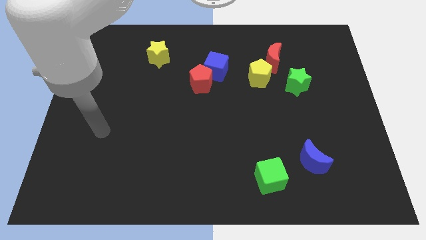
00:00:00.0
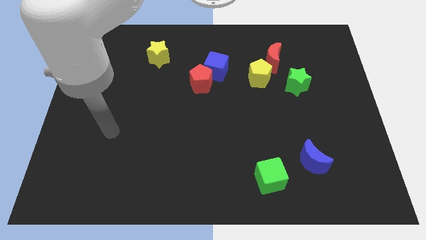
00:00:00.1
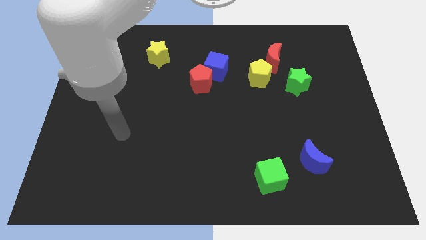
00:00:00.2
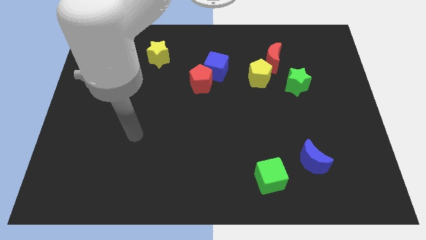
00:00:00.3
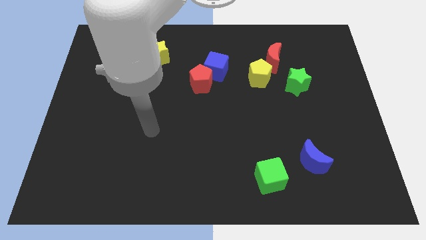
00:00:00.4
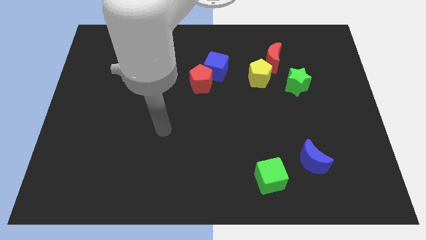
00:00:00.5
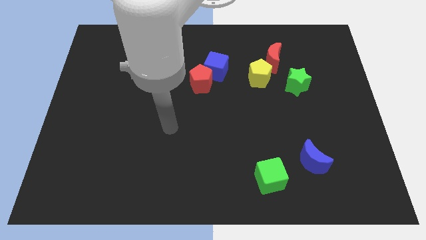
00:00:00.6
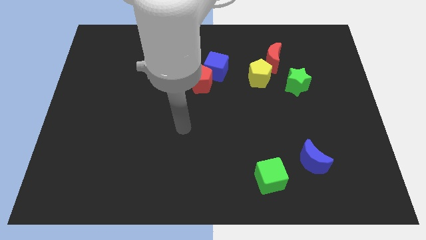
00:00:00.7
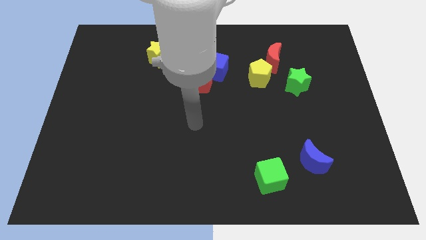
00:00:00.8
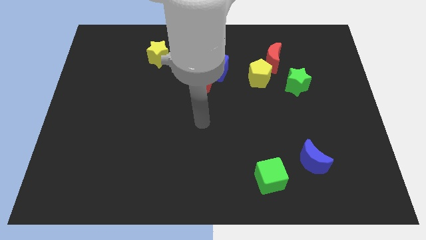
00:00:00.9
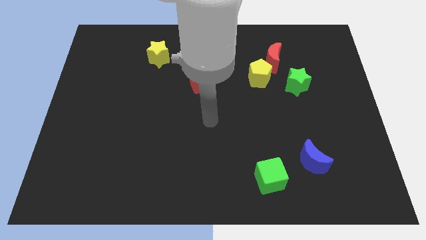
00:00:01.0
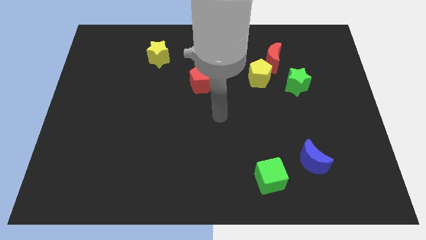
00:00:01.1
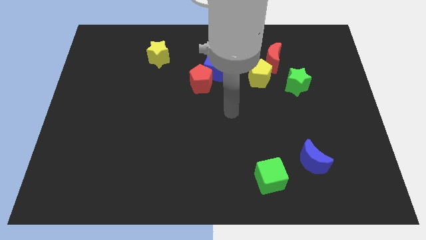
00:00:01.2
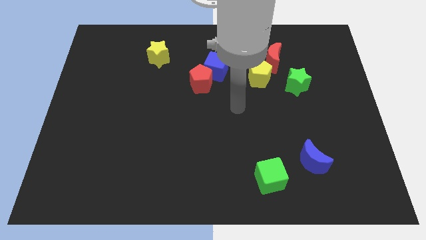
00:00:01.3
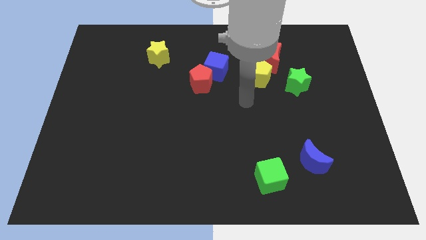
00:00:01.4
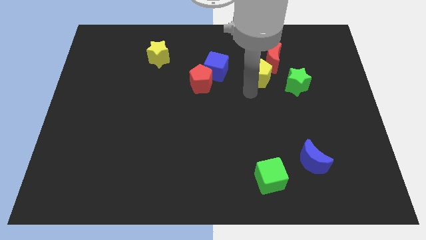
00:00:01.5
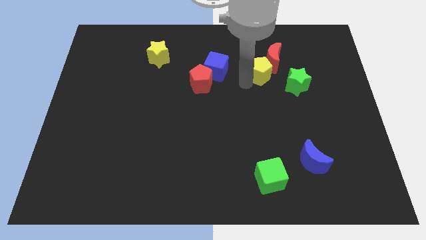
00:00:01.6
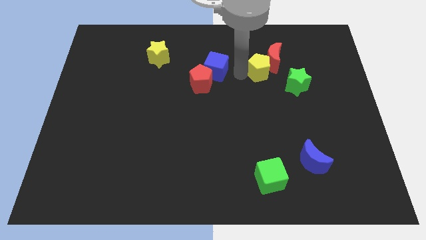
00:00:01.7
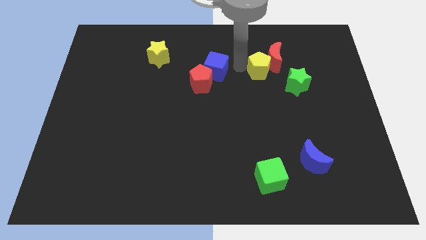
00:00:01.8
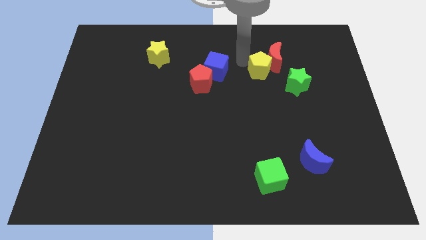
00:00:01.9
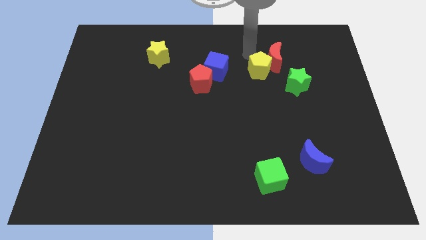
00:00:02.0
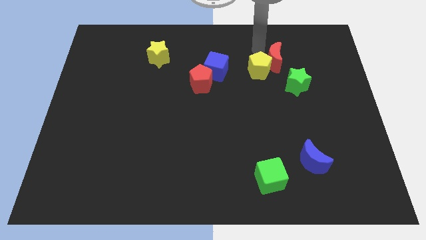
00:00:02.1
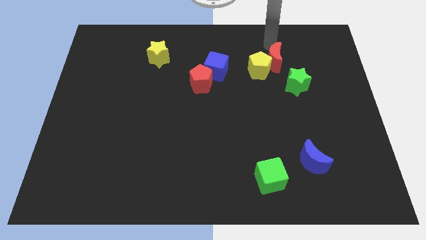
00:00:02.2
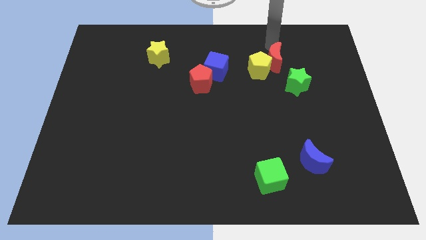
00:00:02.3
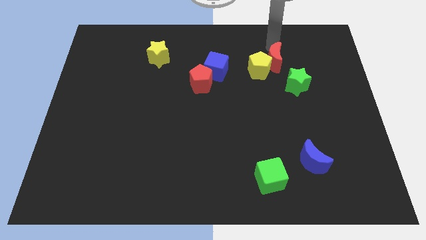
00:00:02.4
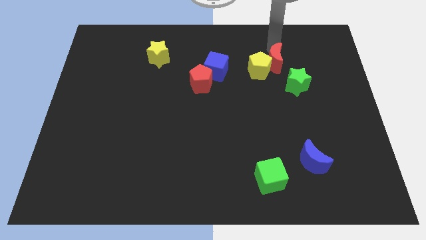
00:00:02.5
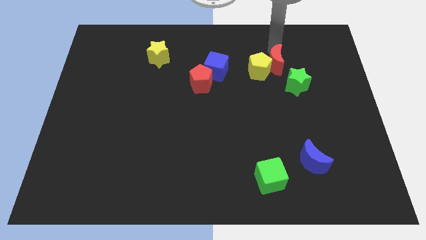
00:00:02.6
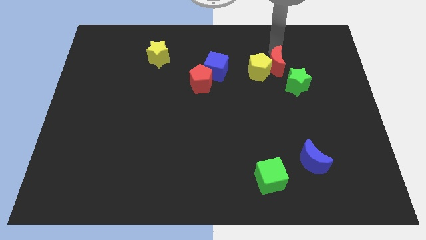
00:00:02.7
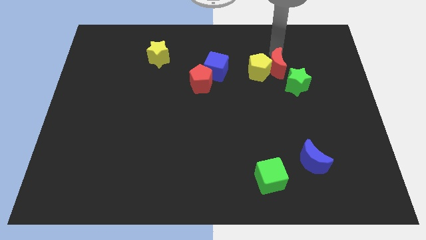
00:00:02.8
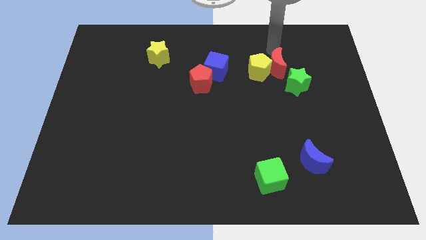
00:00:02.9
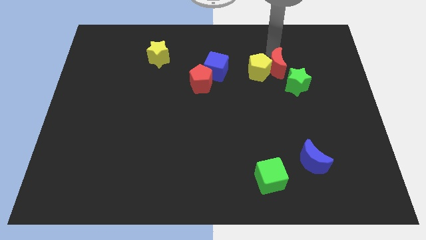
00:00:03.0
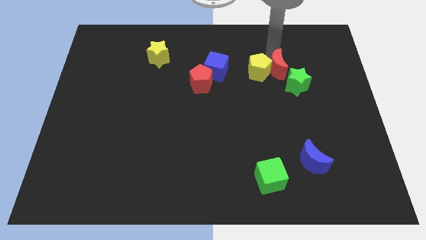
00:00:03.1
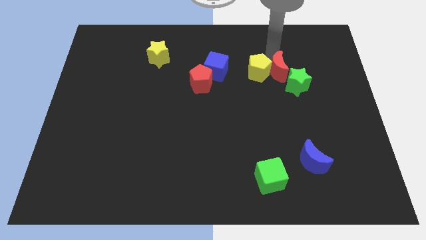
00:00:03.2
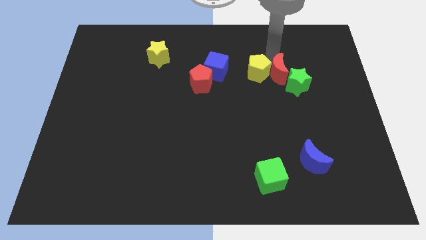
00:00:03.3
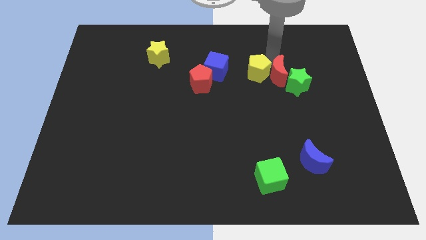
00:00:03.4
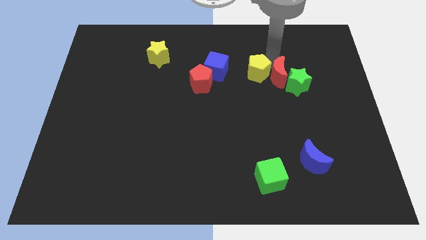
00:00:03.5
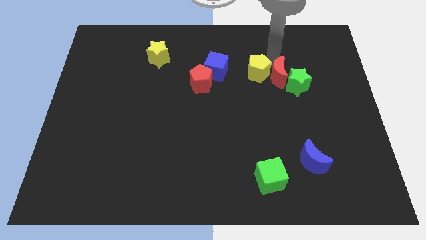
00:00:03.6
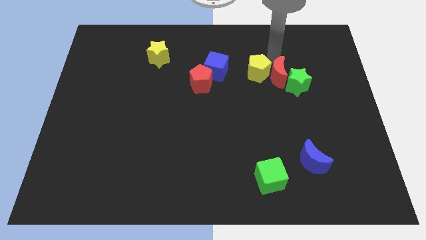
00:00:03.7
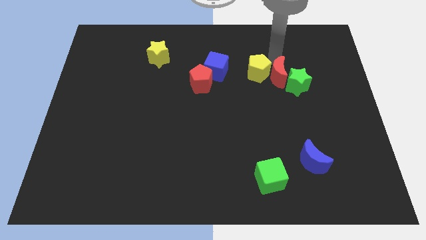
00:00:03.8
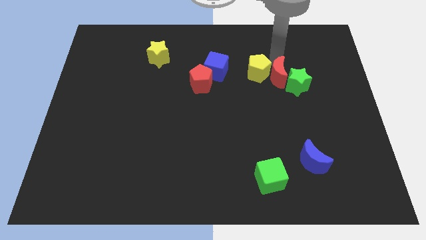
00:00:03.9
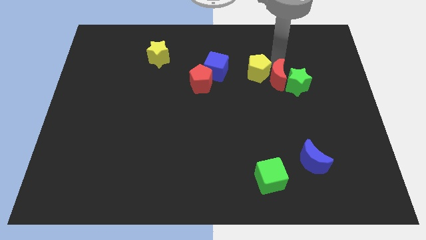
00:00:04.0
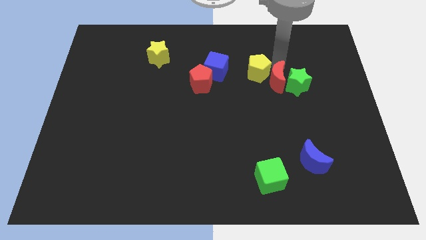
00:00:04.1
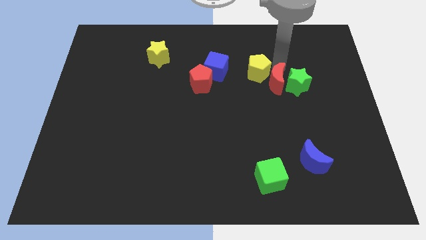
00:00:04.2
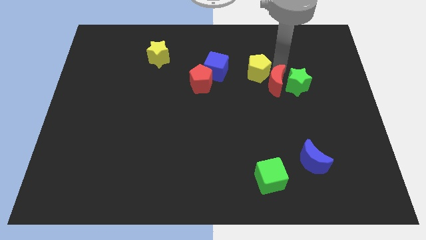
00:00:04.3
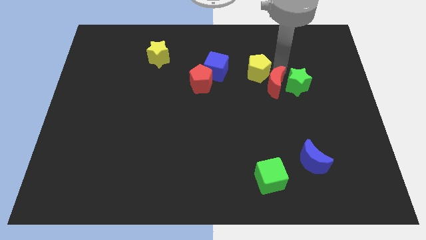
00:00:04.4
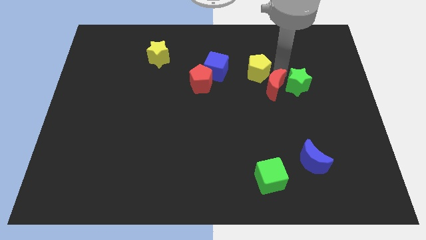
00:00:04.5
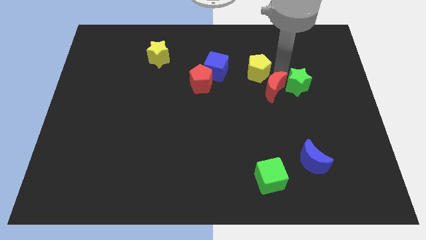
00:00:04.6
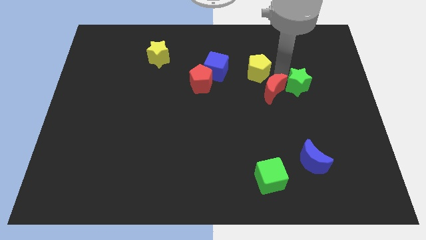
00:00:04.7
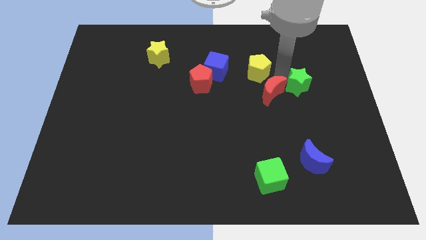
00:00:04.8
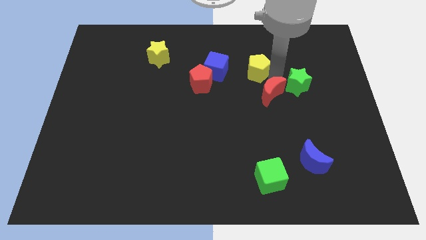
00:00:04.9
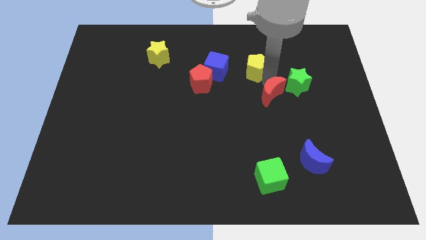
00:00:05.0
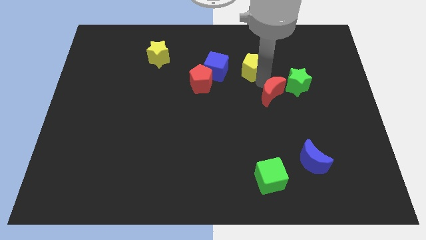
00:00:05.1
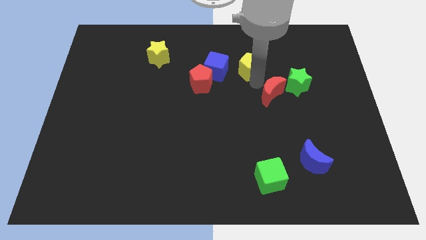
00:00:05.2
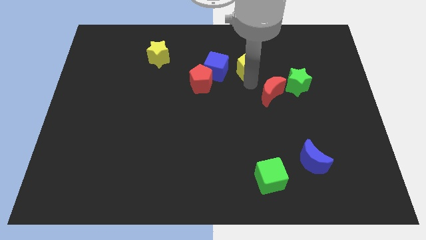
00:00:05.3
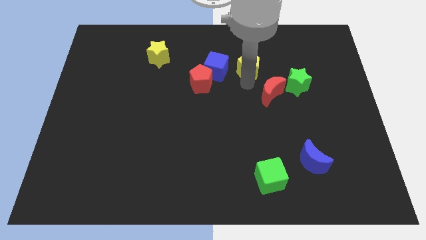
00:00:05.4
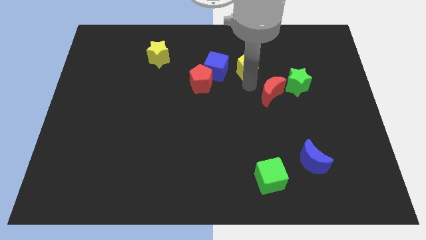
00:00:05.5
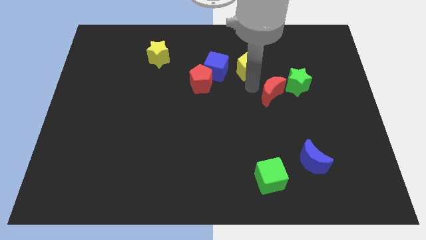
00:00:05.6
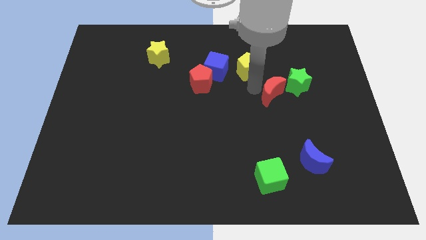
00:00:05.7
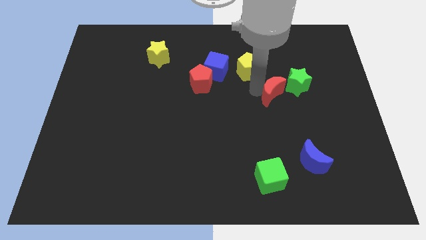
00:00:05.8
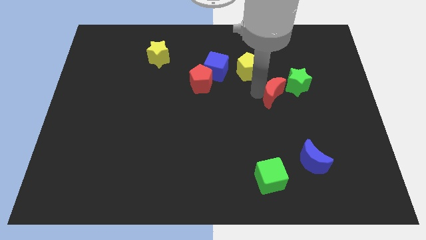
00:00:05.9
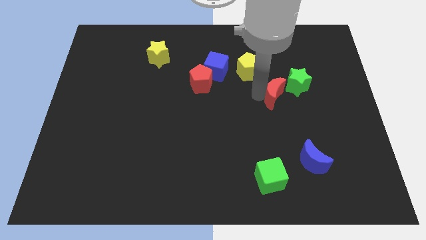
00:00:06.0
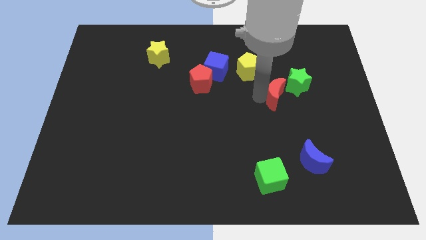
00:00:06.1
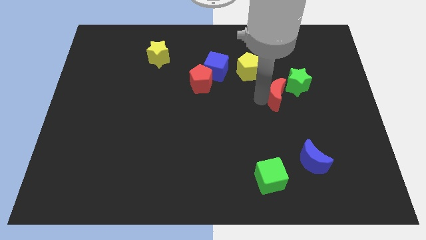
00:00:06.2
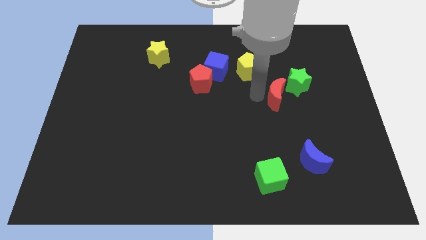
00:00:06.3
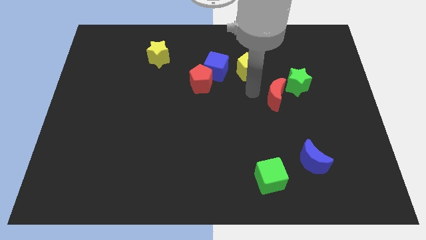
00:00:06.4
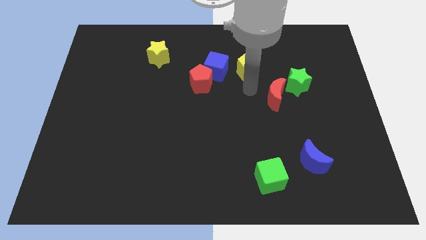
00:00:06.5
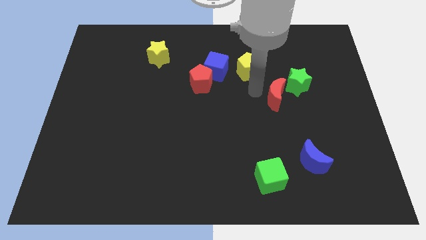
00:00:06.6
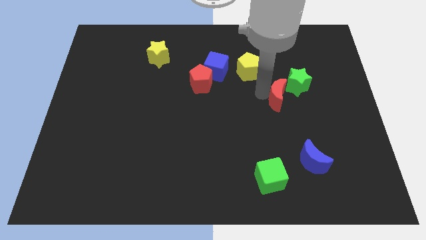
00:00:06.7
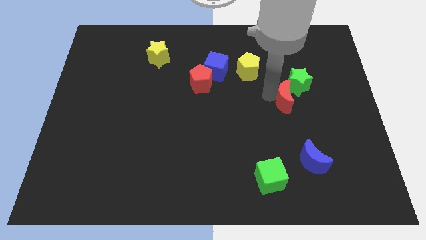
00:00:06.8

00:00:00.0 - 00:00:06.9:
put the red moon below the green star
